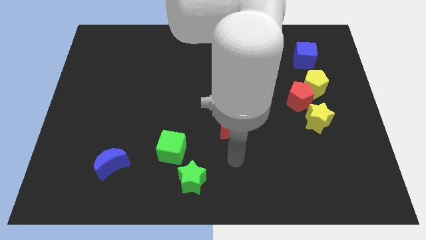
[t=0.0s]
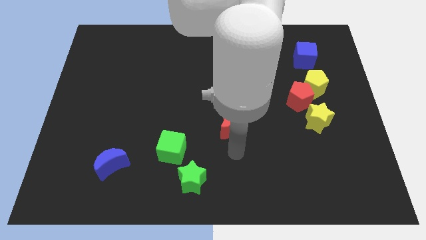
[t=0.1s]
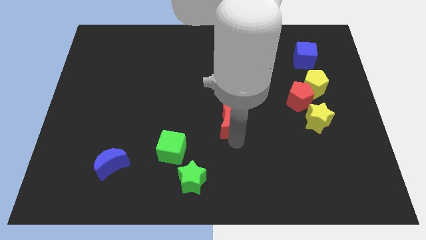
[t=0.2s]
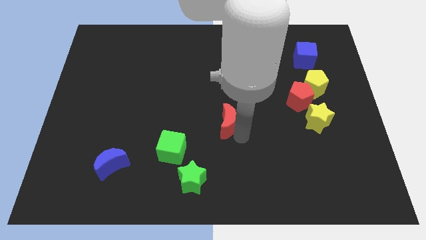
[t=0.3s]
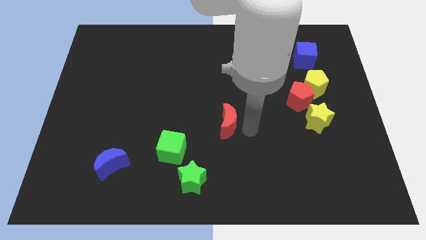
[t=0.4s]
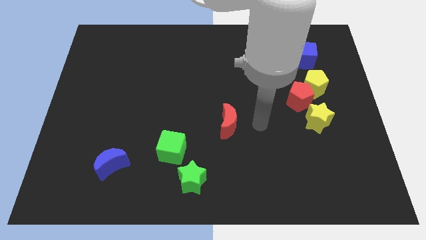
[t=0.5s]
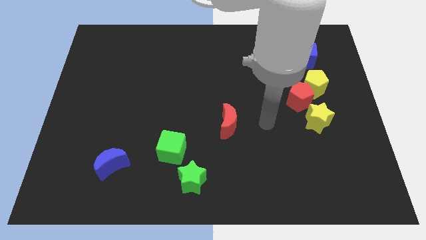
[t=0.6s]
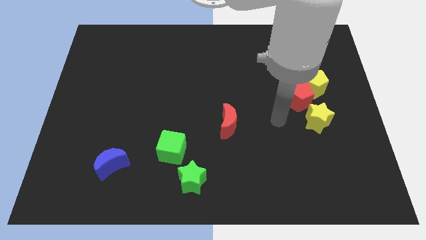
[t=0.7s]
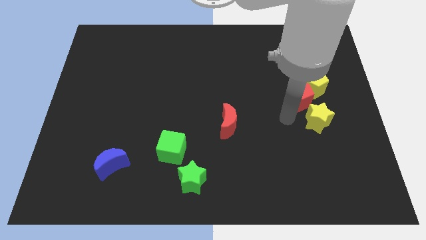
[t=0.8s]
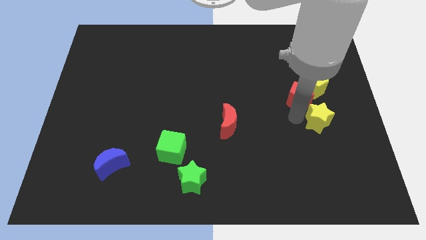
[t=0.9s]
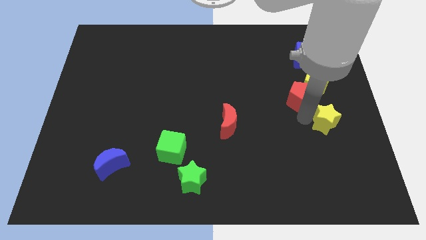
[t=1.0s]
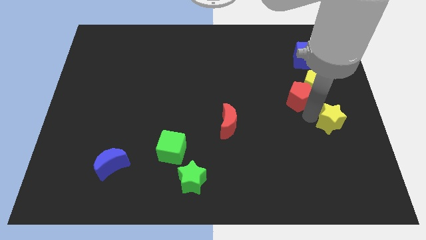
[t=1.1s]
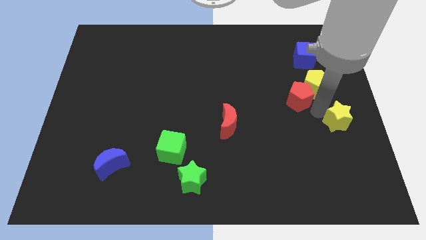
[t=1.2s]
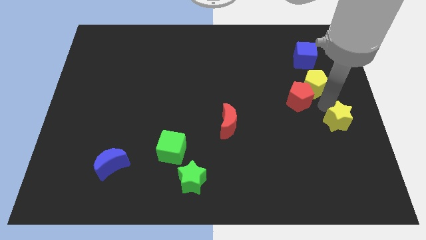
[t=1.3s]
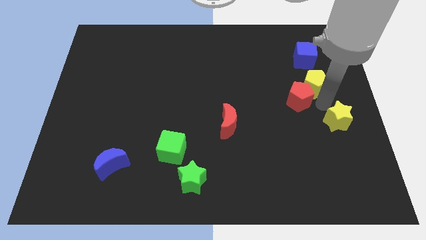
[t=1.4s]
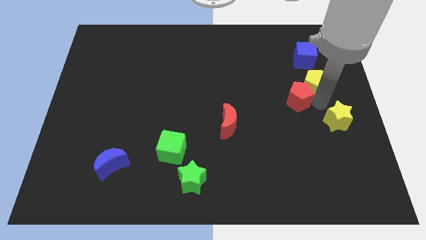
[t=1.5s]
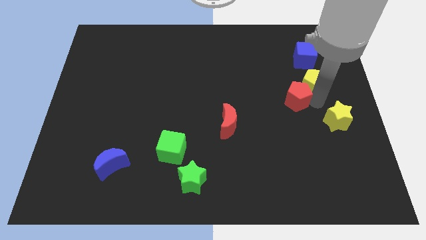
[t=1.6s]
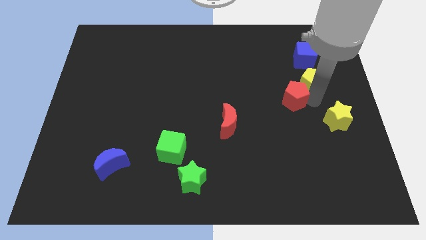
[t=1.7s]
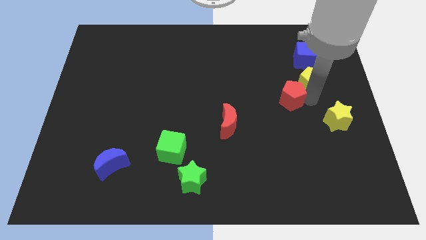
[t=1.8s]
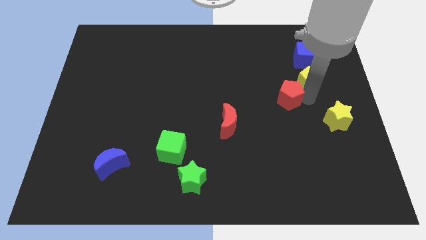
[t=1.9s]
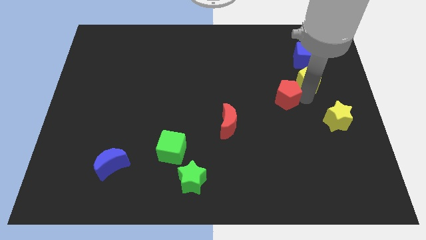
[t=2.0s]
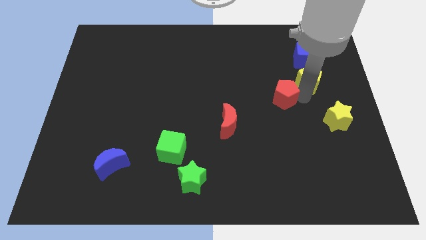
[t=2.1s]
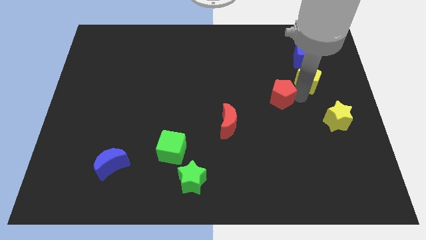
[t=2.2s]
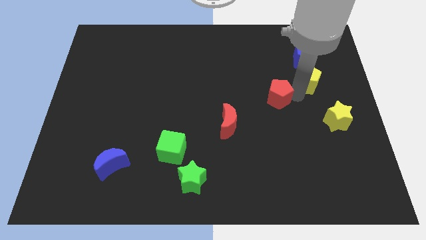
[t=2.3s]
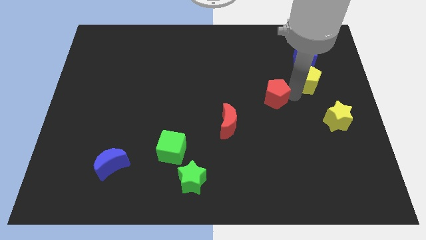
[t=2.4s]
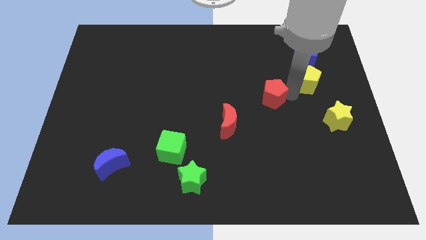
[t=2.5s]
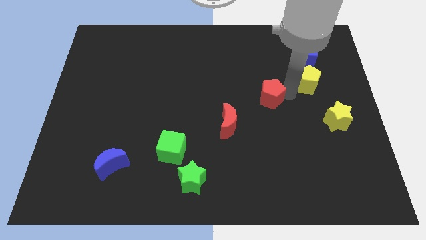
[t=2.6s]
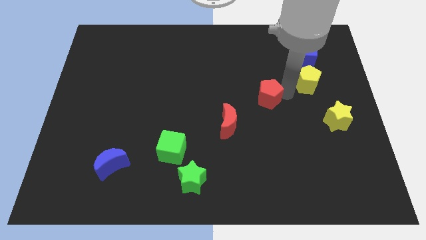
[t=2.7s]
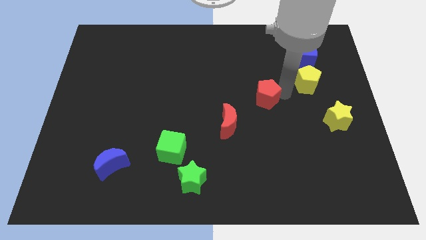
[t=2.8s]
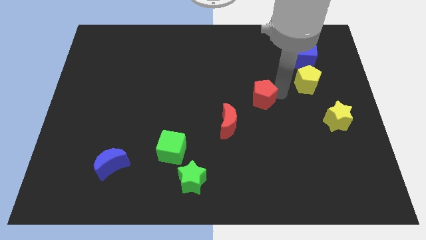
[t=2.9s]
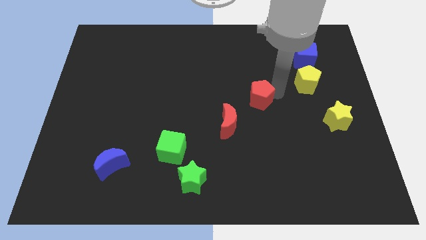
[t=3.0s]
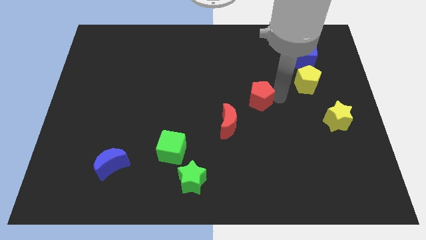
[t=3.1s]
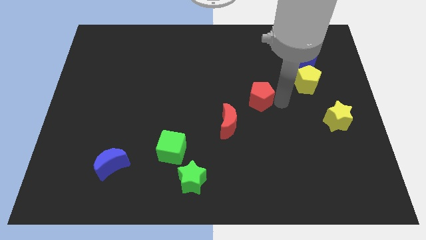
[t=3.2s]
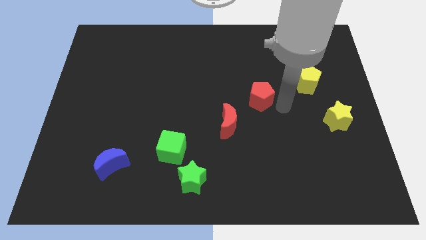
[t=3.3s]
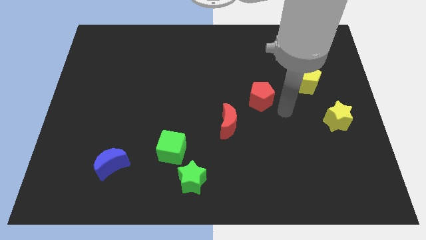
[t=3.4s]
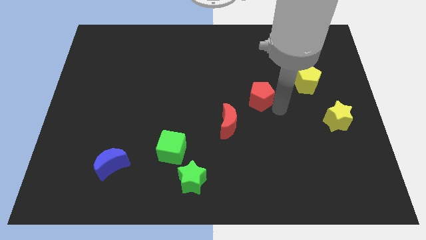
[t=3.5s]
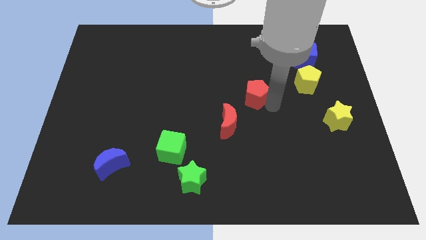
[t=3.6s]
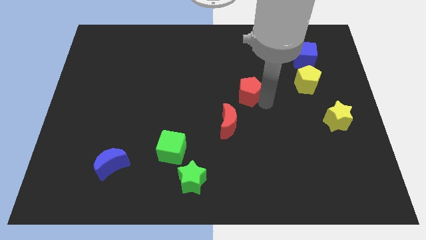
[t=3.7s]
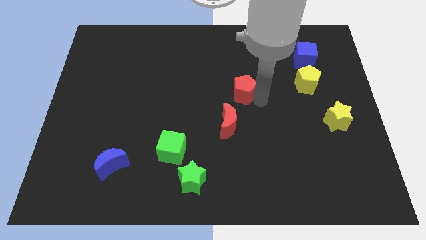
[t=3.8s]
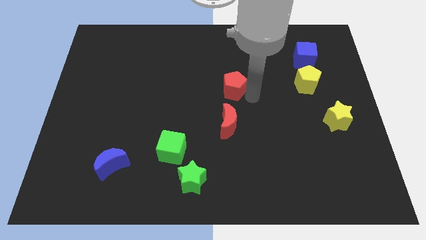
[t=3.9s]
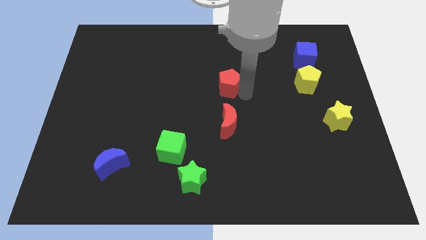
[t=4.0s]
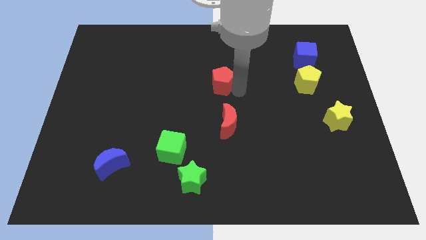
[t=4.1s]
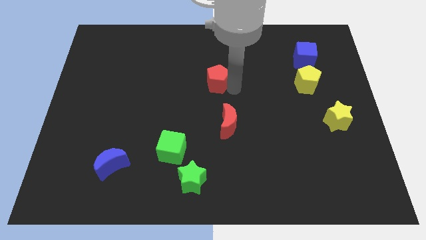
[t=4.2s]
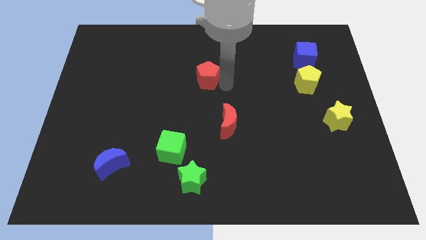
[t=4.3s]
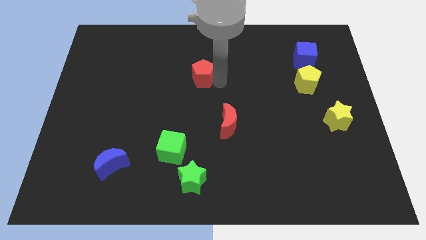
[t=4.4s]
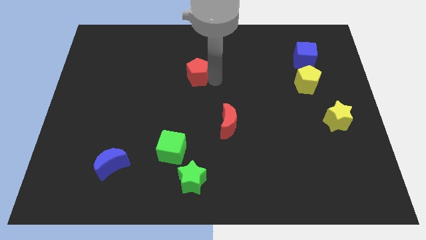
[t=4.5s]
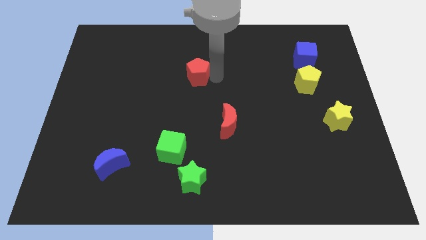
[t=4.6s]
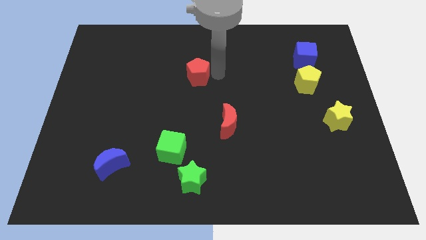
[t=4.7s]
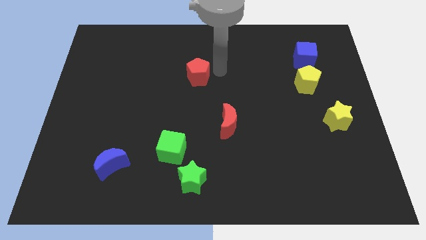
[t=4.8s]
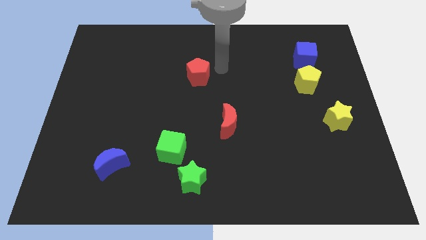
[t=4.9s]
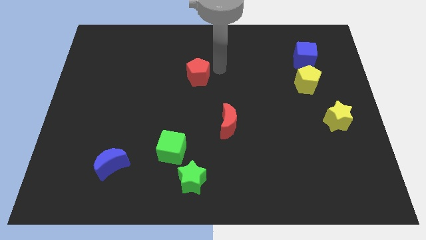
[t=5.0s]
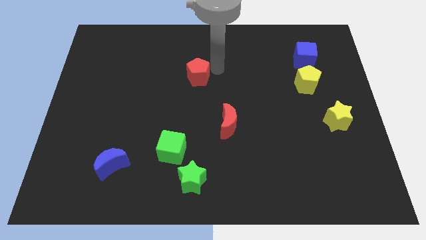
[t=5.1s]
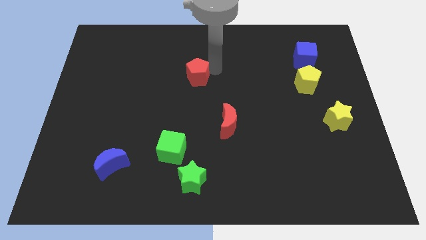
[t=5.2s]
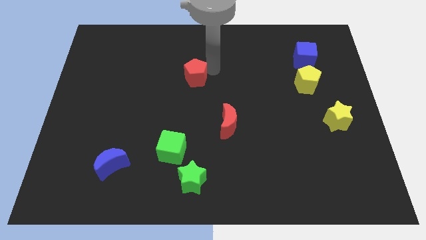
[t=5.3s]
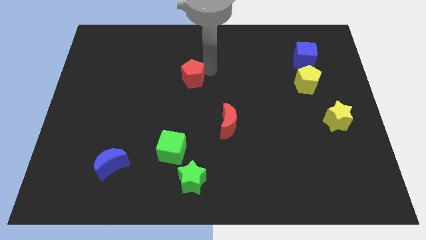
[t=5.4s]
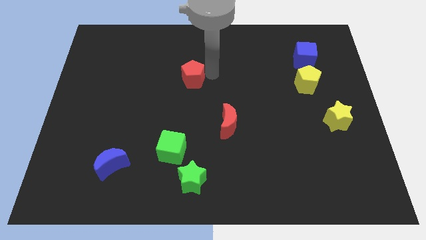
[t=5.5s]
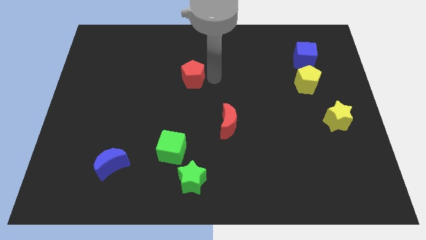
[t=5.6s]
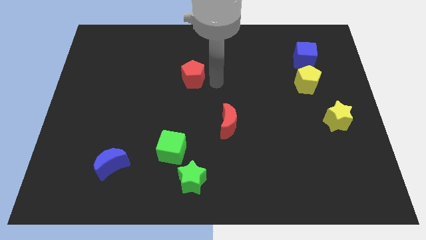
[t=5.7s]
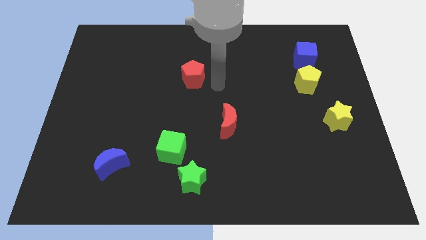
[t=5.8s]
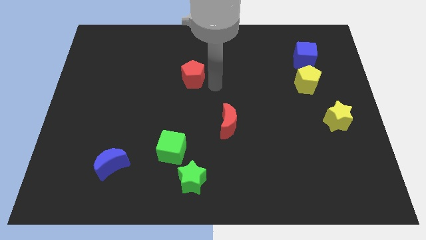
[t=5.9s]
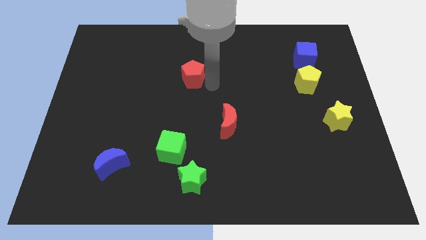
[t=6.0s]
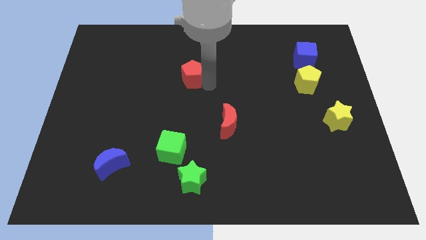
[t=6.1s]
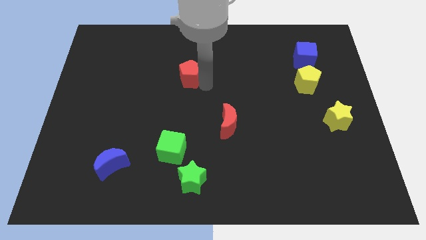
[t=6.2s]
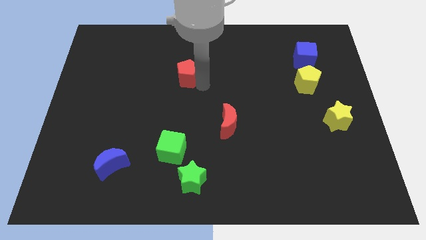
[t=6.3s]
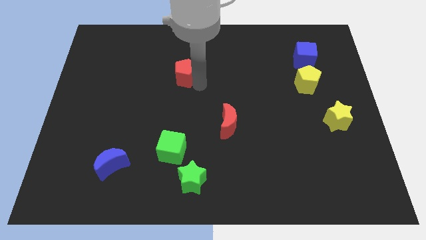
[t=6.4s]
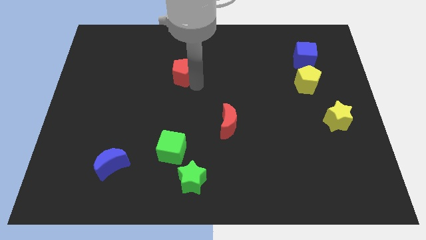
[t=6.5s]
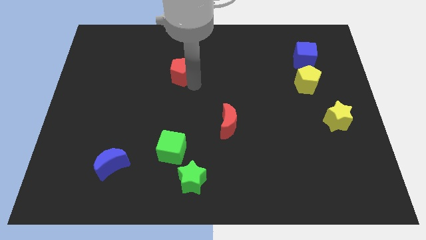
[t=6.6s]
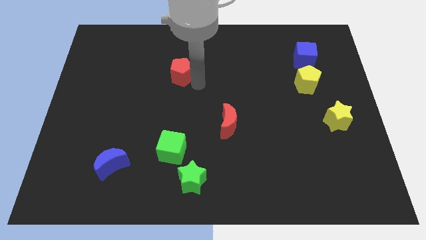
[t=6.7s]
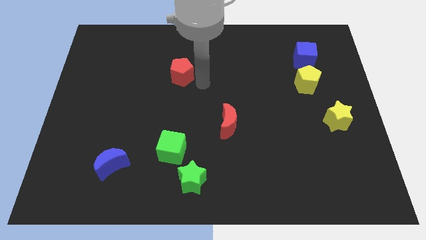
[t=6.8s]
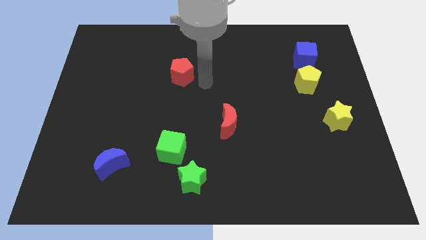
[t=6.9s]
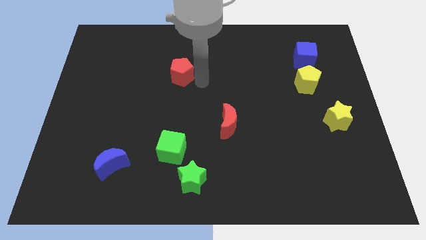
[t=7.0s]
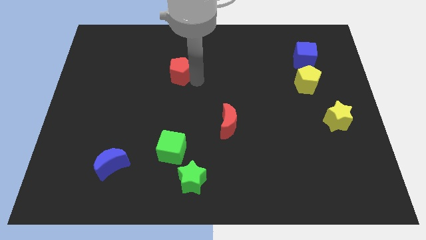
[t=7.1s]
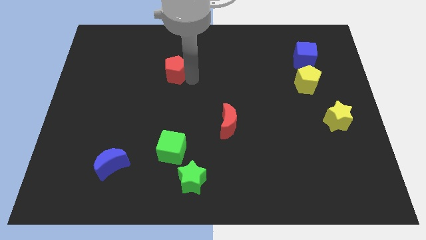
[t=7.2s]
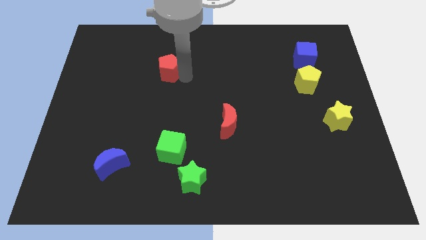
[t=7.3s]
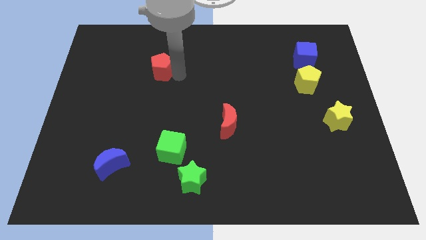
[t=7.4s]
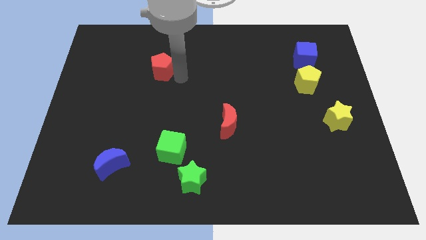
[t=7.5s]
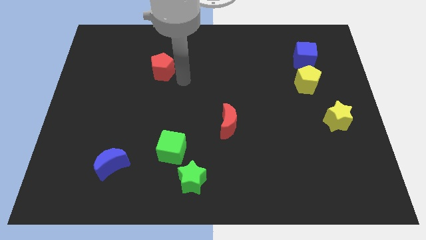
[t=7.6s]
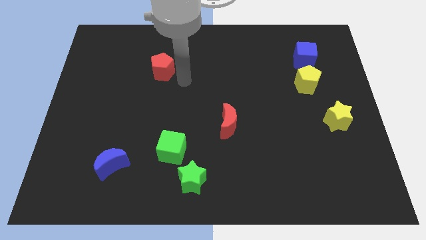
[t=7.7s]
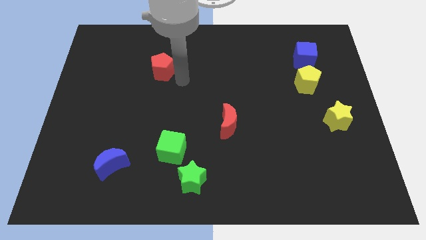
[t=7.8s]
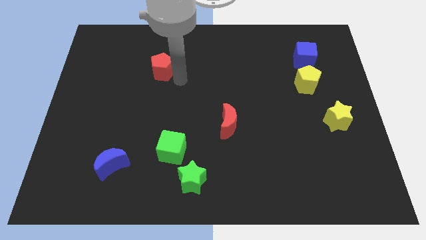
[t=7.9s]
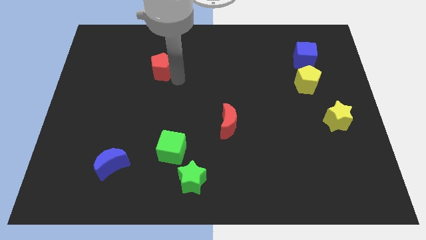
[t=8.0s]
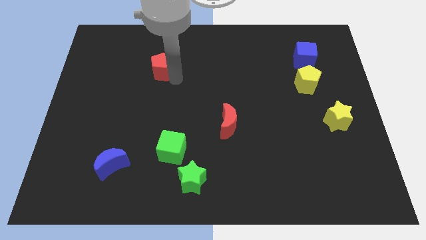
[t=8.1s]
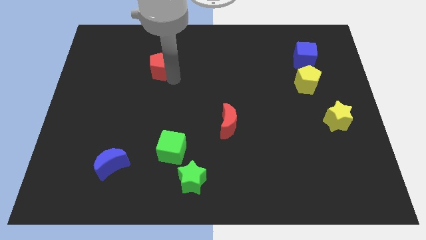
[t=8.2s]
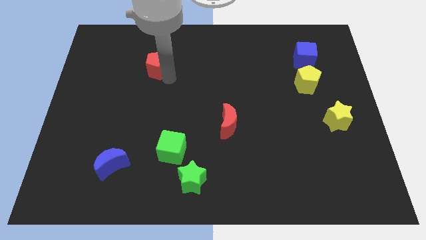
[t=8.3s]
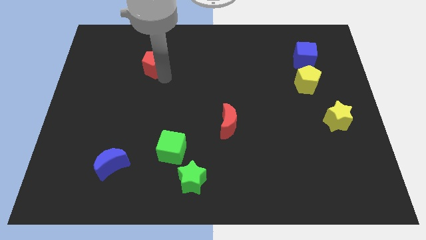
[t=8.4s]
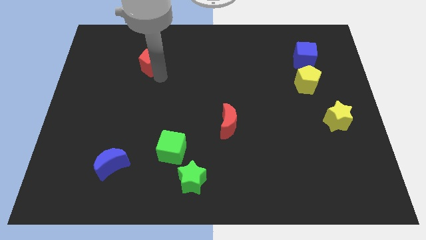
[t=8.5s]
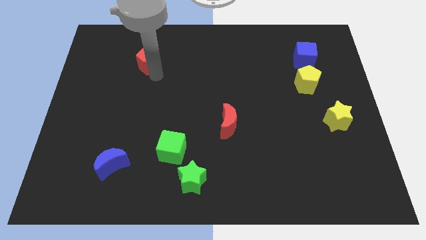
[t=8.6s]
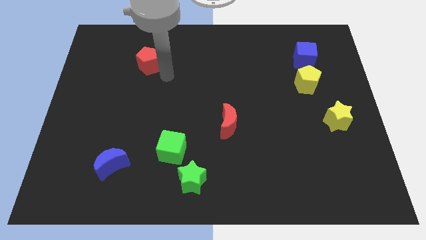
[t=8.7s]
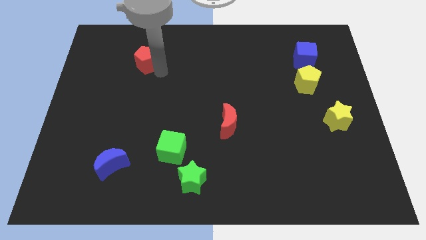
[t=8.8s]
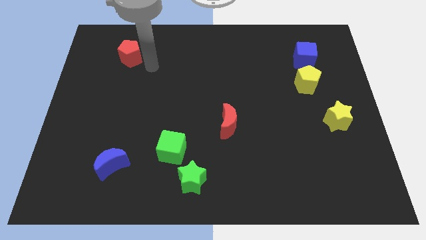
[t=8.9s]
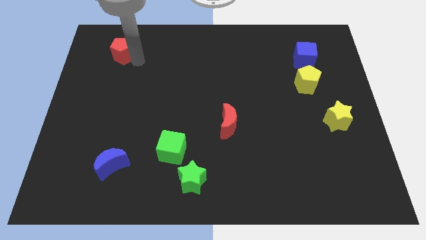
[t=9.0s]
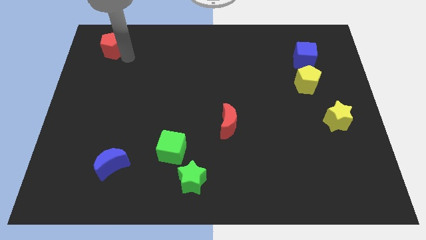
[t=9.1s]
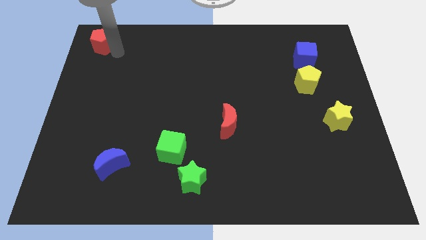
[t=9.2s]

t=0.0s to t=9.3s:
slide the red pentagon to the top left of the board
